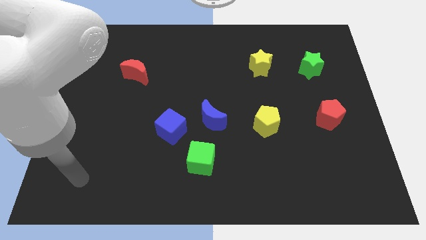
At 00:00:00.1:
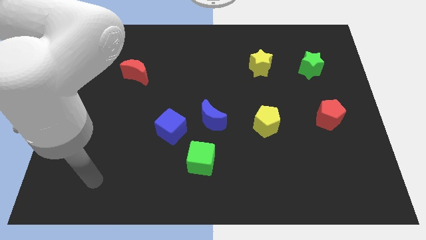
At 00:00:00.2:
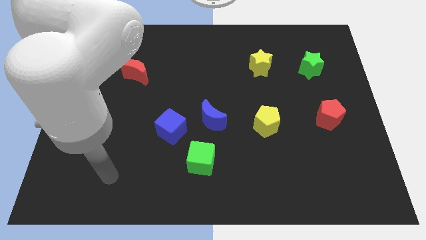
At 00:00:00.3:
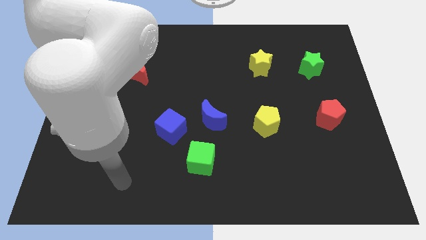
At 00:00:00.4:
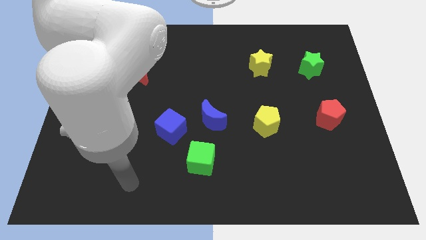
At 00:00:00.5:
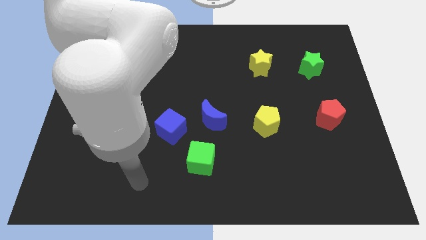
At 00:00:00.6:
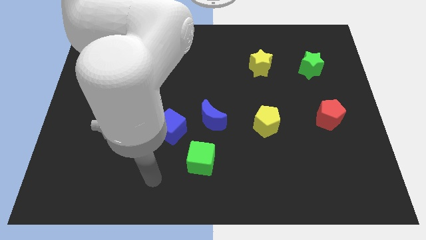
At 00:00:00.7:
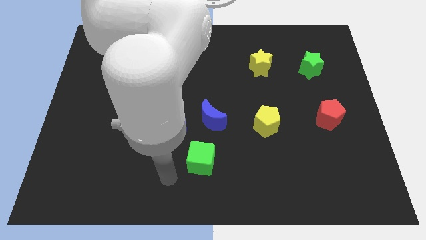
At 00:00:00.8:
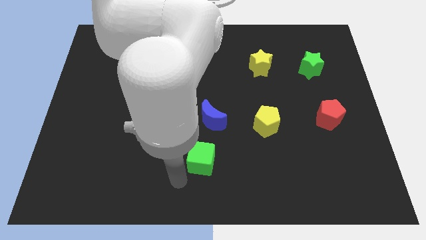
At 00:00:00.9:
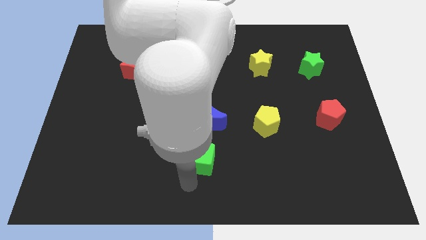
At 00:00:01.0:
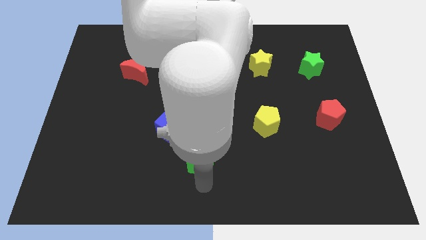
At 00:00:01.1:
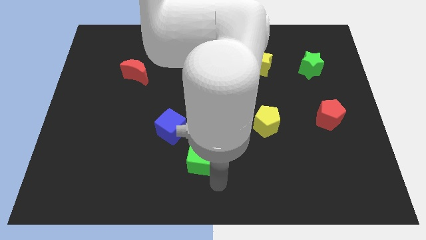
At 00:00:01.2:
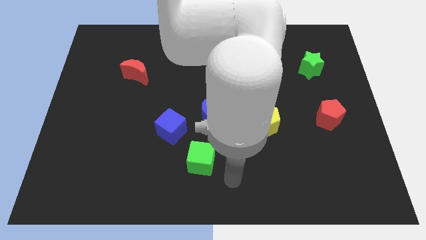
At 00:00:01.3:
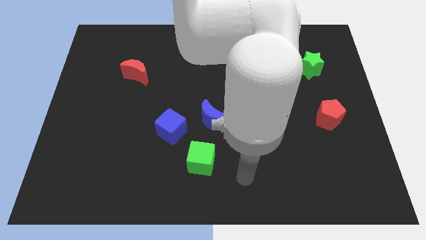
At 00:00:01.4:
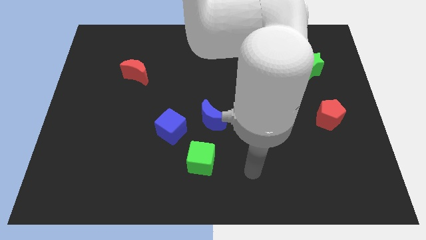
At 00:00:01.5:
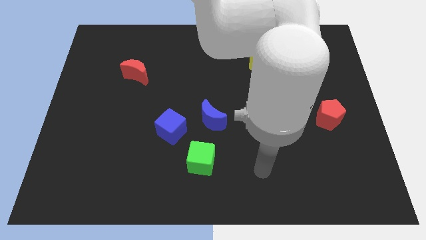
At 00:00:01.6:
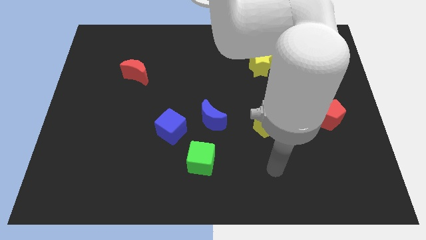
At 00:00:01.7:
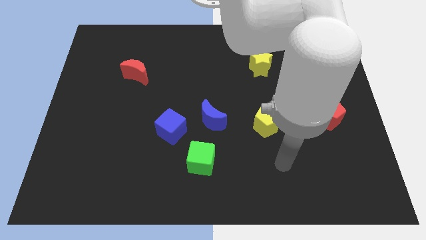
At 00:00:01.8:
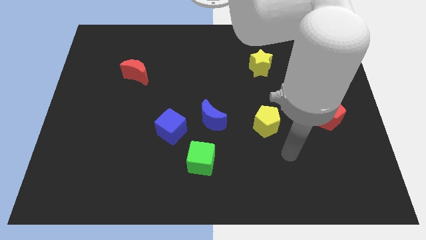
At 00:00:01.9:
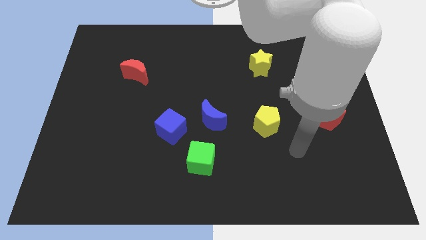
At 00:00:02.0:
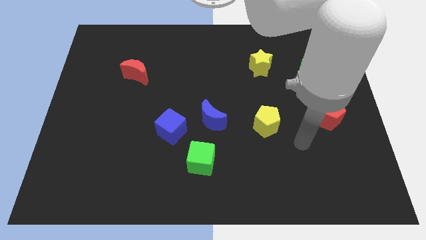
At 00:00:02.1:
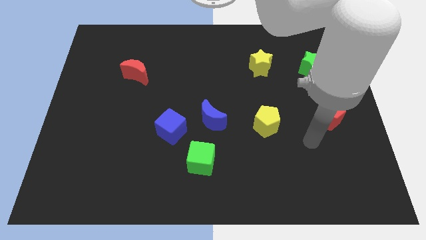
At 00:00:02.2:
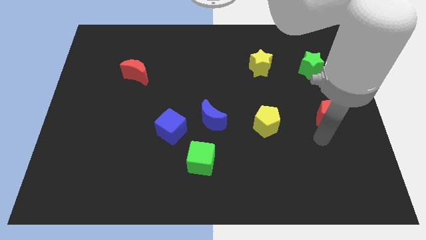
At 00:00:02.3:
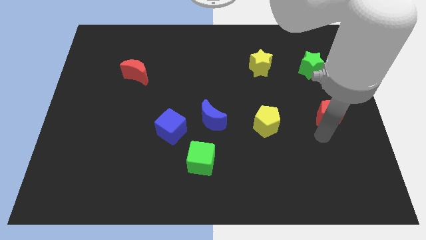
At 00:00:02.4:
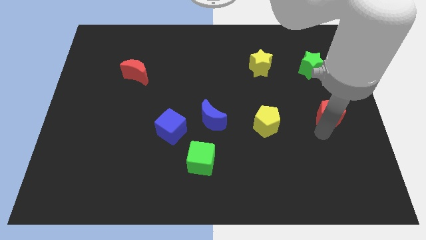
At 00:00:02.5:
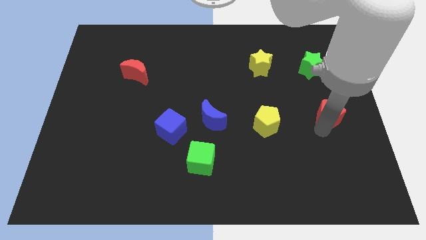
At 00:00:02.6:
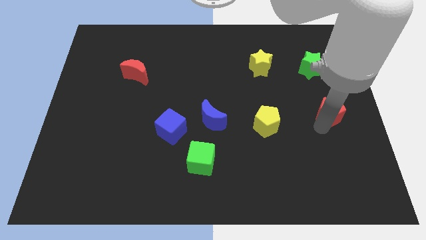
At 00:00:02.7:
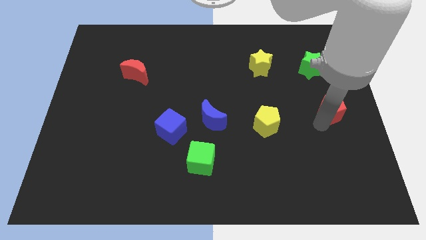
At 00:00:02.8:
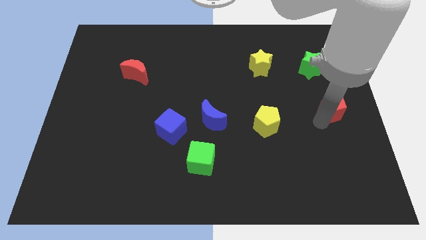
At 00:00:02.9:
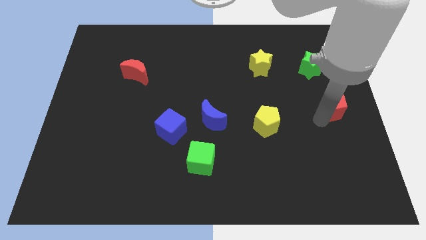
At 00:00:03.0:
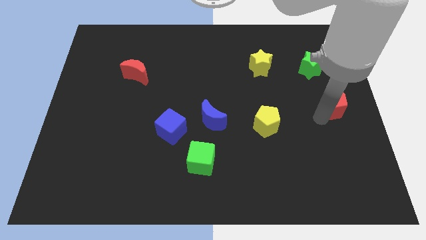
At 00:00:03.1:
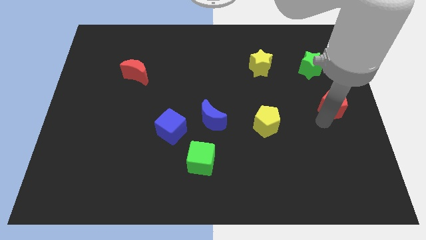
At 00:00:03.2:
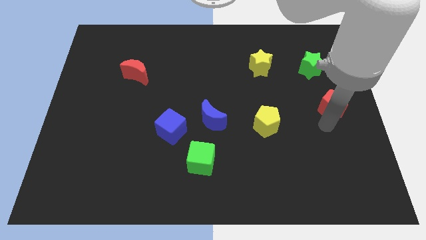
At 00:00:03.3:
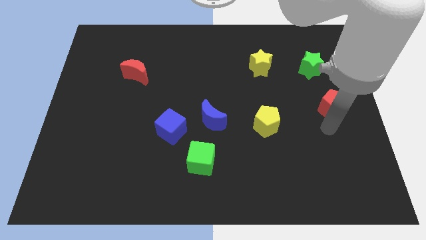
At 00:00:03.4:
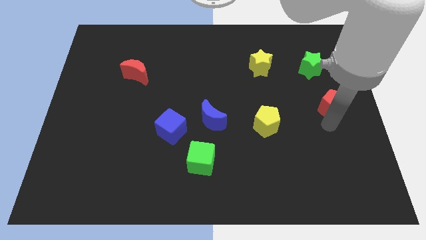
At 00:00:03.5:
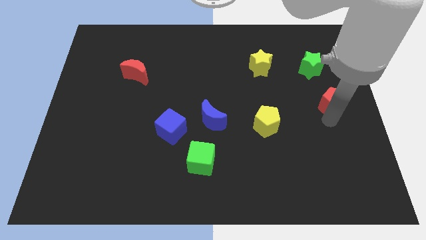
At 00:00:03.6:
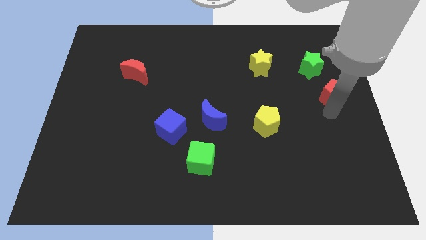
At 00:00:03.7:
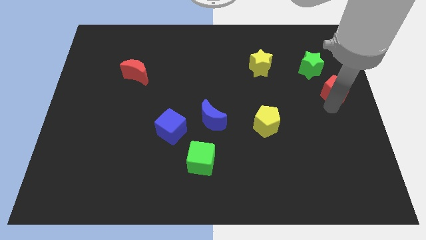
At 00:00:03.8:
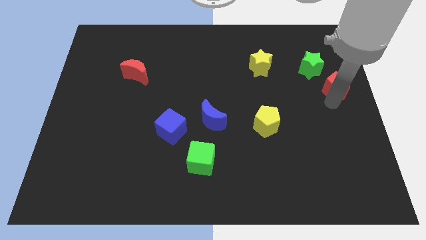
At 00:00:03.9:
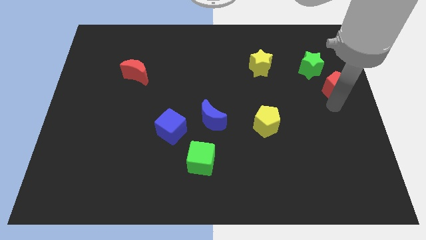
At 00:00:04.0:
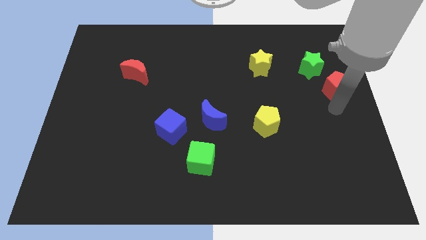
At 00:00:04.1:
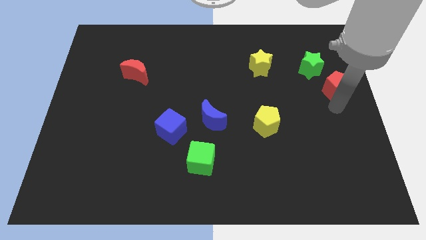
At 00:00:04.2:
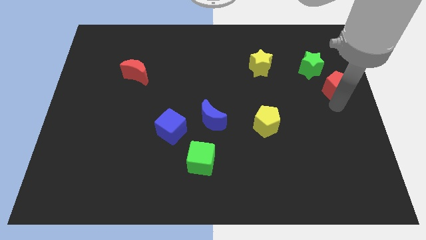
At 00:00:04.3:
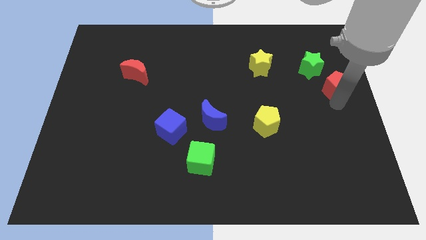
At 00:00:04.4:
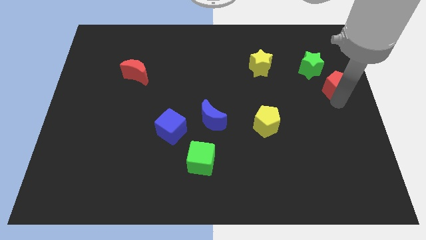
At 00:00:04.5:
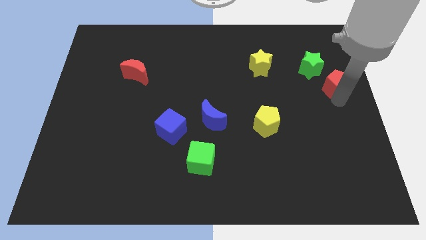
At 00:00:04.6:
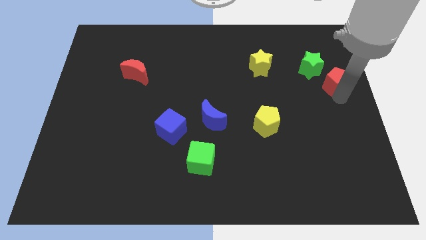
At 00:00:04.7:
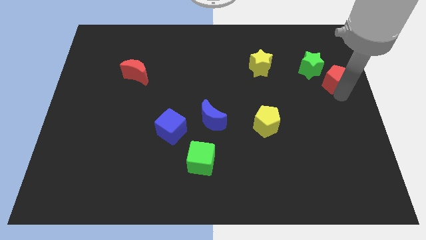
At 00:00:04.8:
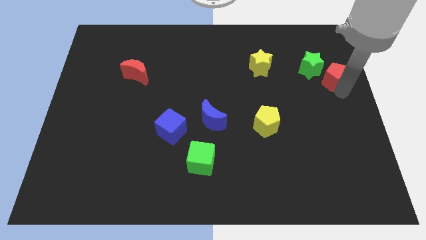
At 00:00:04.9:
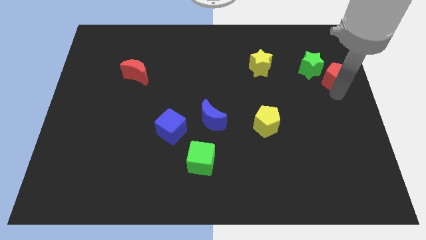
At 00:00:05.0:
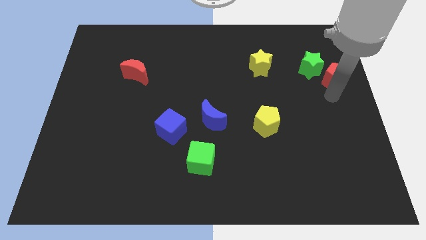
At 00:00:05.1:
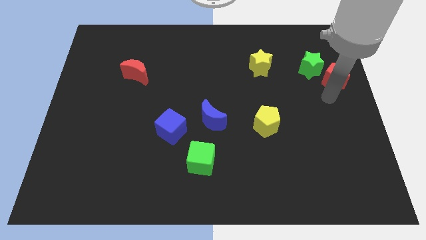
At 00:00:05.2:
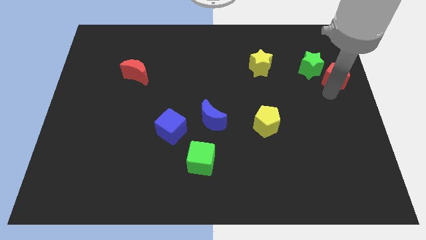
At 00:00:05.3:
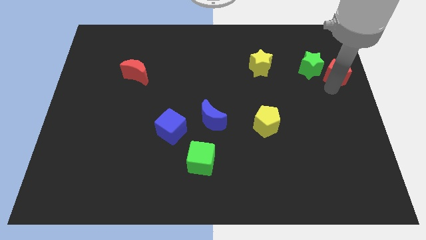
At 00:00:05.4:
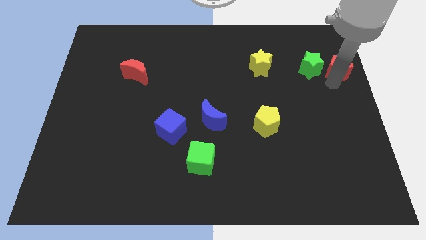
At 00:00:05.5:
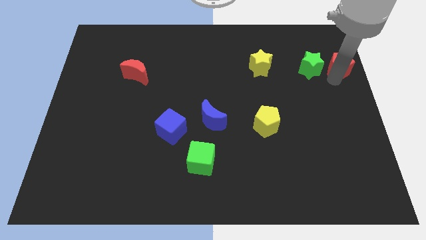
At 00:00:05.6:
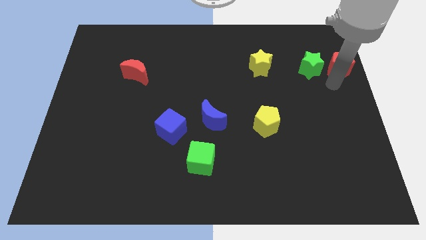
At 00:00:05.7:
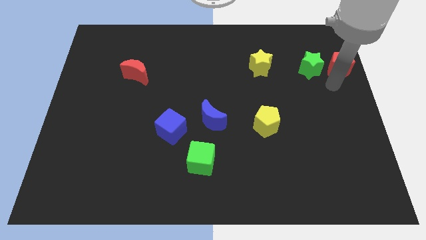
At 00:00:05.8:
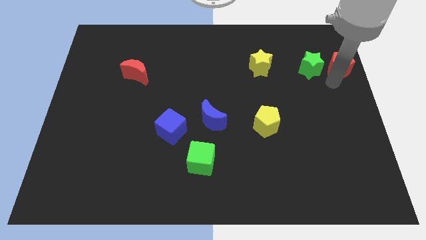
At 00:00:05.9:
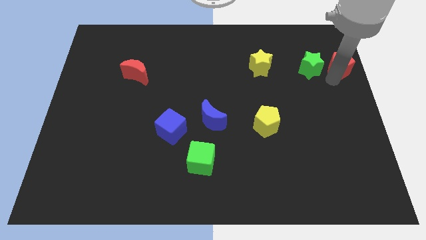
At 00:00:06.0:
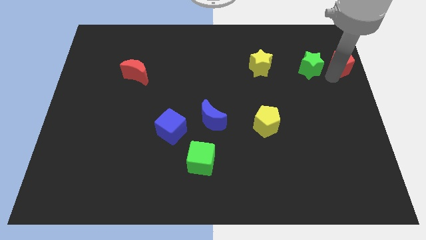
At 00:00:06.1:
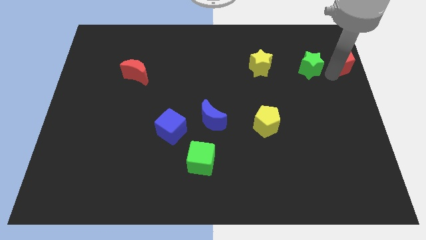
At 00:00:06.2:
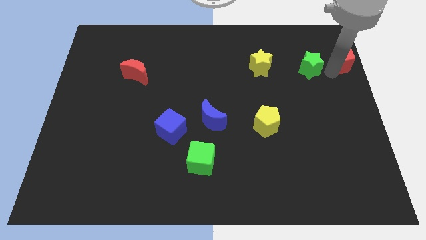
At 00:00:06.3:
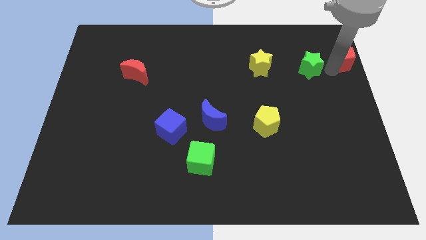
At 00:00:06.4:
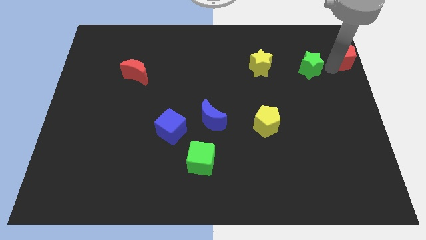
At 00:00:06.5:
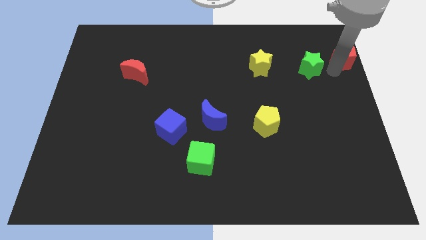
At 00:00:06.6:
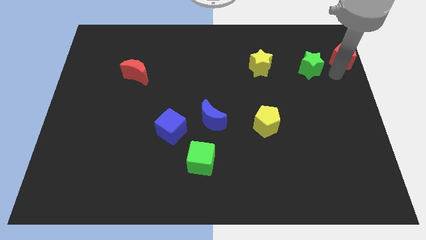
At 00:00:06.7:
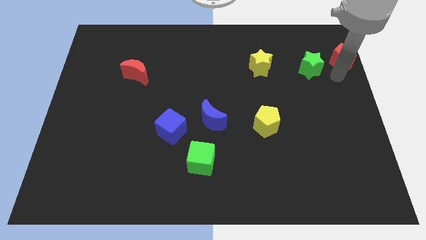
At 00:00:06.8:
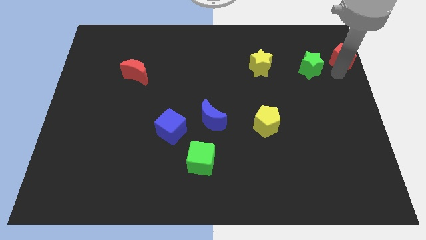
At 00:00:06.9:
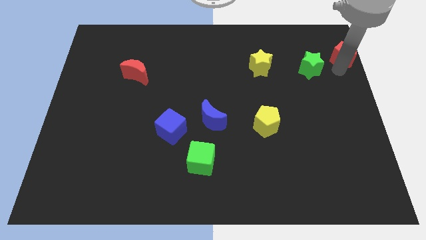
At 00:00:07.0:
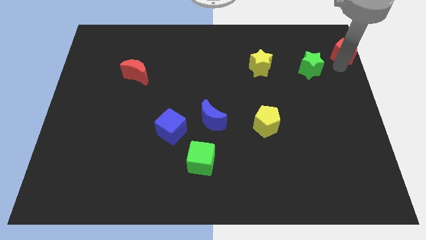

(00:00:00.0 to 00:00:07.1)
put the red pentagon to the top right corner

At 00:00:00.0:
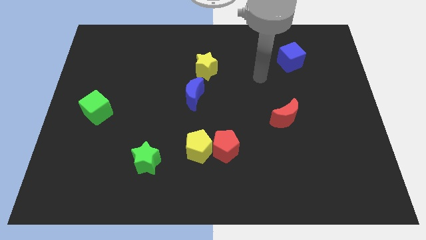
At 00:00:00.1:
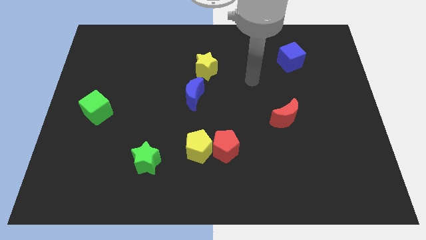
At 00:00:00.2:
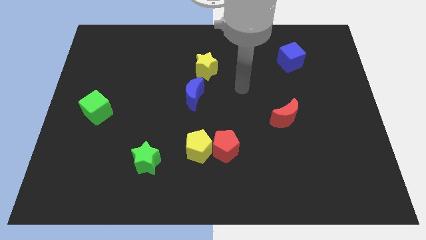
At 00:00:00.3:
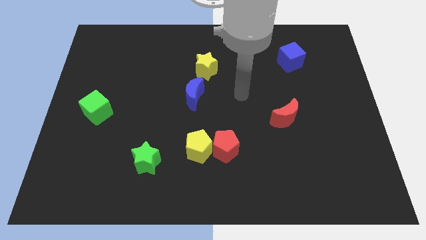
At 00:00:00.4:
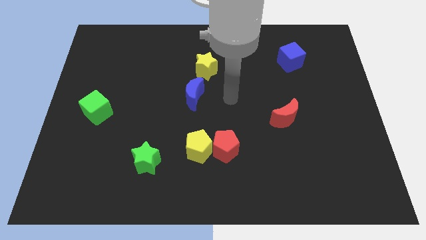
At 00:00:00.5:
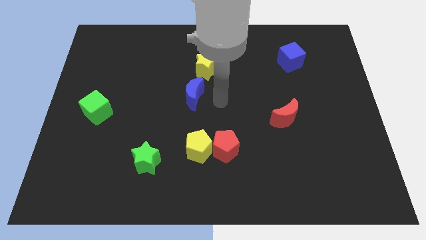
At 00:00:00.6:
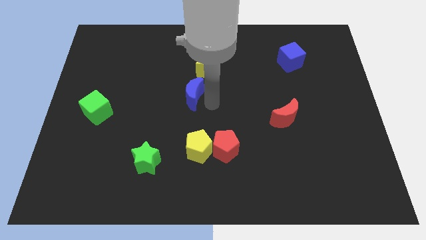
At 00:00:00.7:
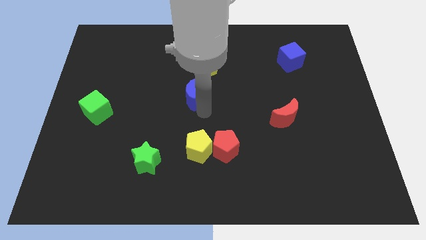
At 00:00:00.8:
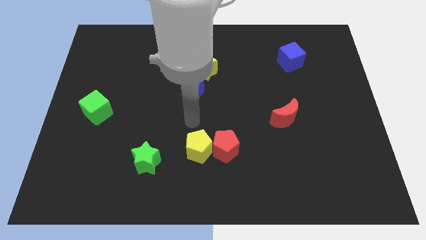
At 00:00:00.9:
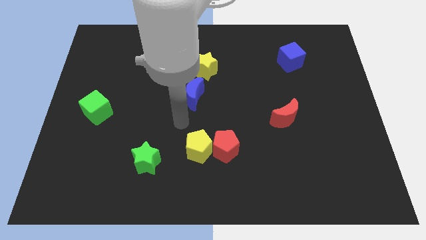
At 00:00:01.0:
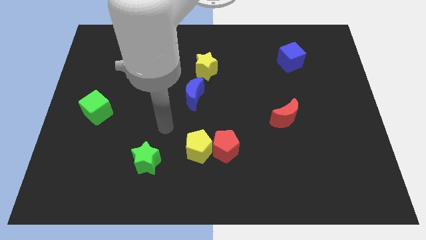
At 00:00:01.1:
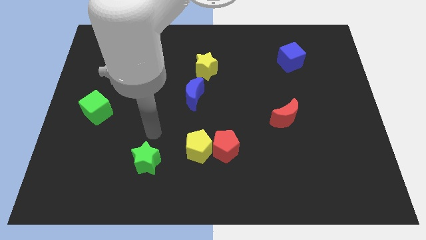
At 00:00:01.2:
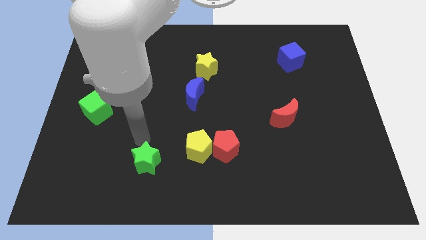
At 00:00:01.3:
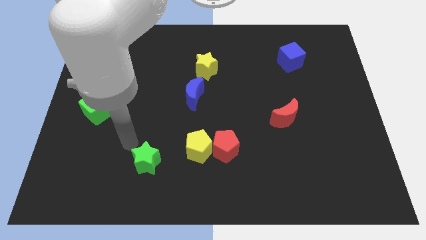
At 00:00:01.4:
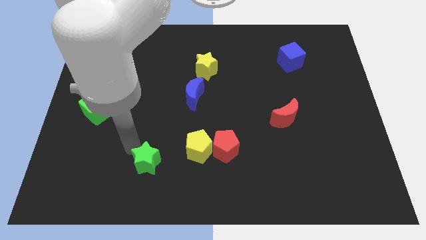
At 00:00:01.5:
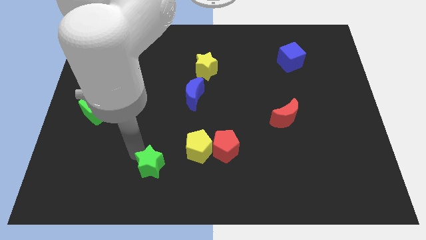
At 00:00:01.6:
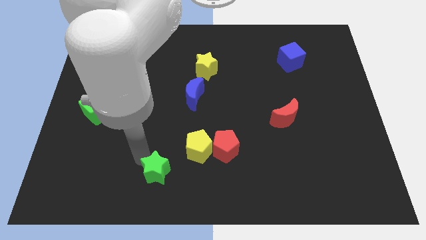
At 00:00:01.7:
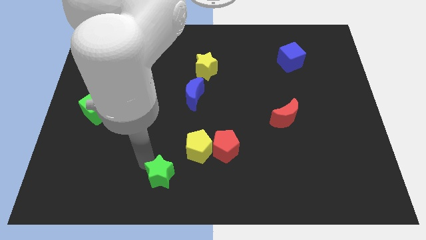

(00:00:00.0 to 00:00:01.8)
slide the green star to the bottom side
